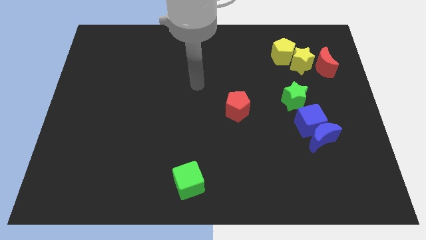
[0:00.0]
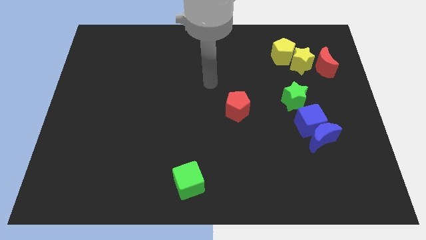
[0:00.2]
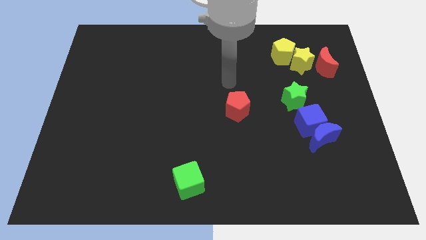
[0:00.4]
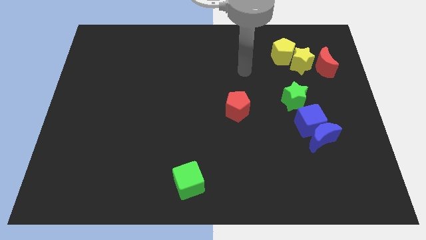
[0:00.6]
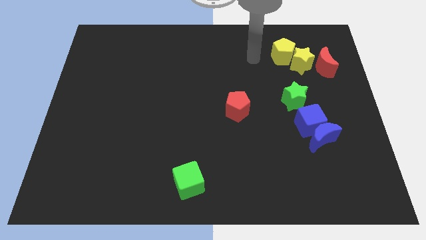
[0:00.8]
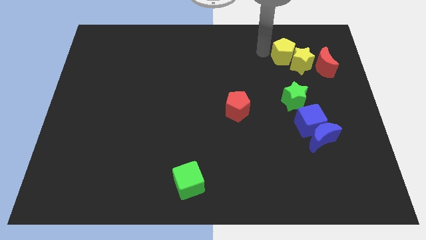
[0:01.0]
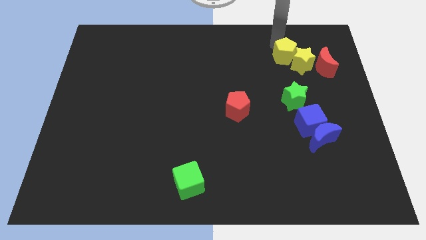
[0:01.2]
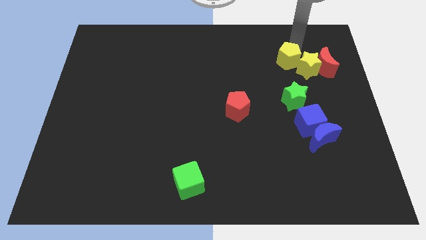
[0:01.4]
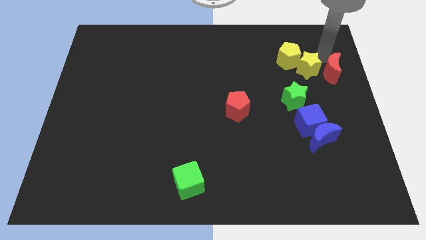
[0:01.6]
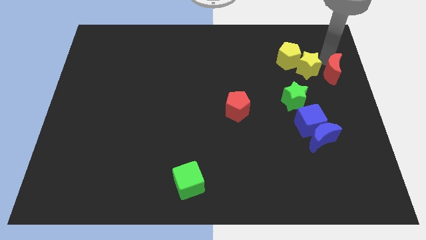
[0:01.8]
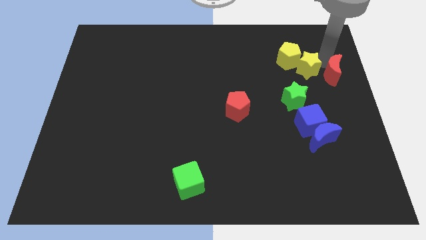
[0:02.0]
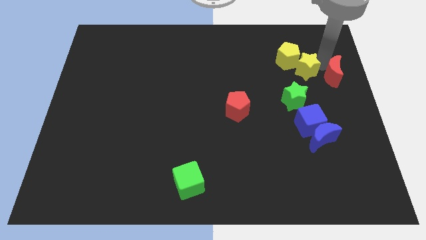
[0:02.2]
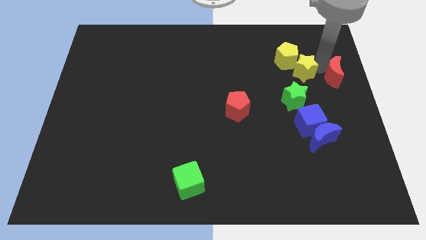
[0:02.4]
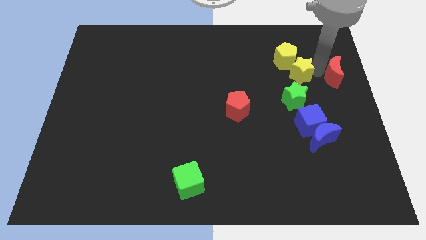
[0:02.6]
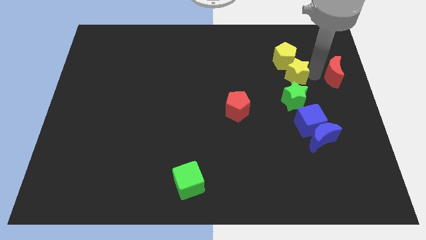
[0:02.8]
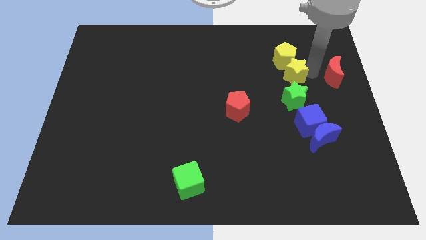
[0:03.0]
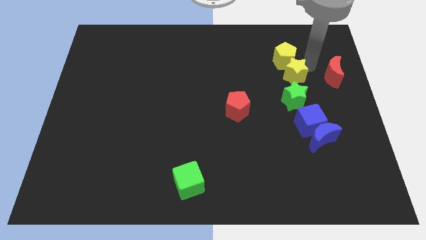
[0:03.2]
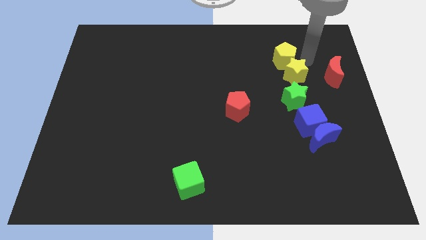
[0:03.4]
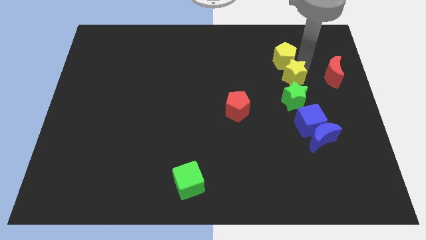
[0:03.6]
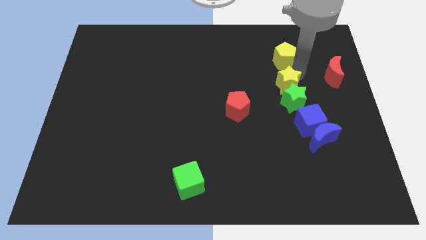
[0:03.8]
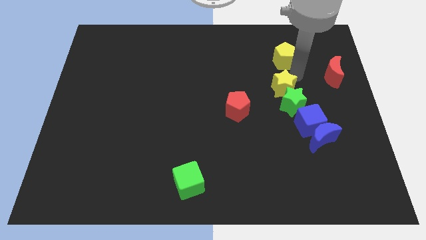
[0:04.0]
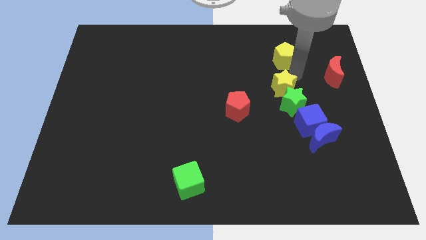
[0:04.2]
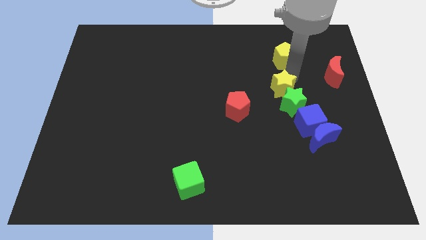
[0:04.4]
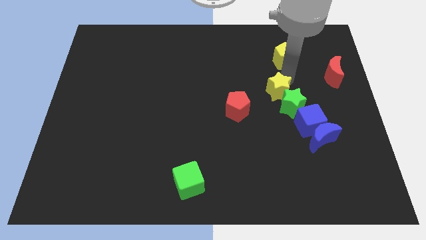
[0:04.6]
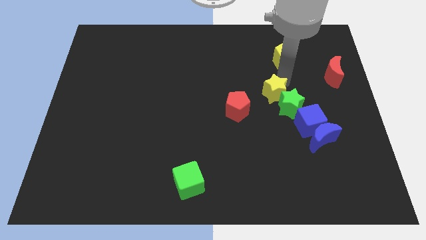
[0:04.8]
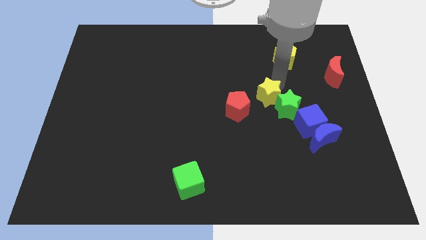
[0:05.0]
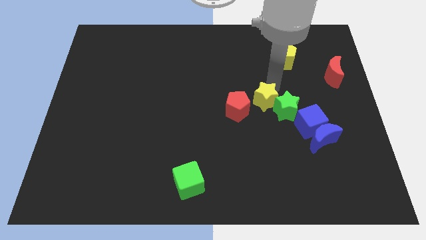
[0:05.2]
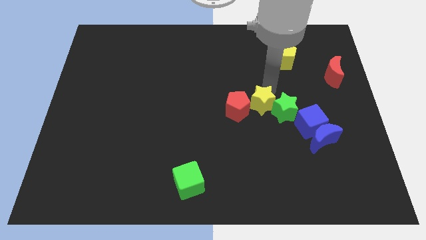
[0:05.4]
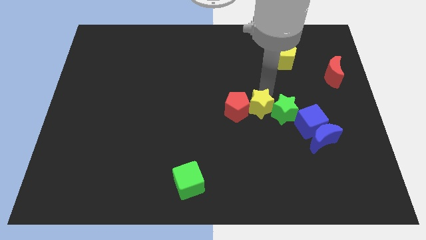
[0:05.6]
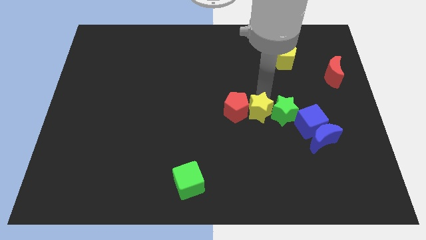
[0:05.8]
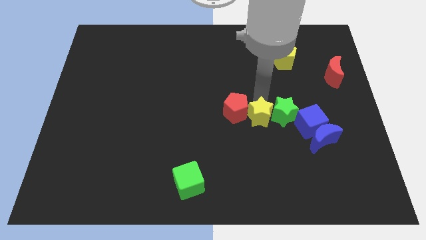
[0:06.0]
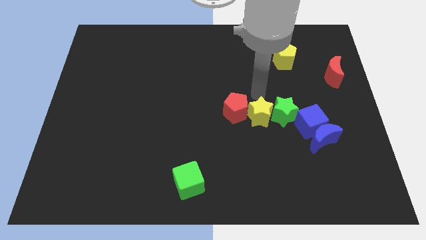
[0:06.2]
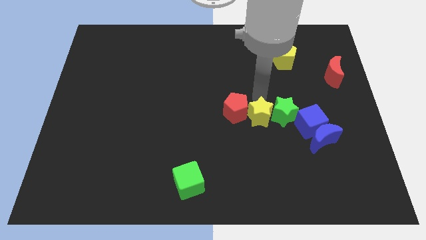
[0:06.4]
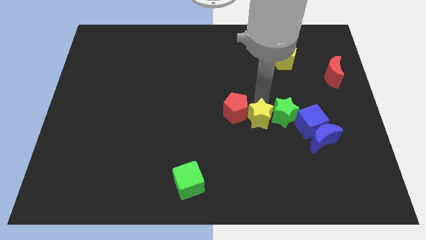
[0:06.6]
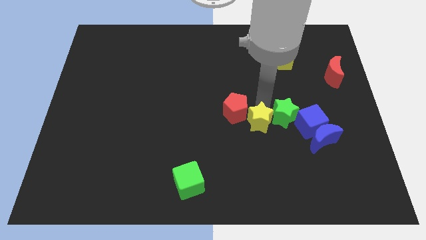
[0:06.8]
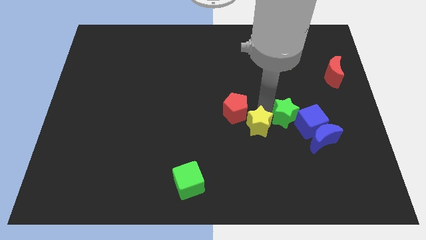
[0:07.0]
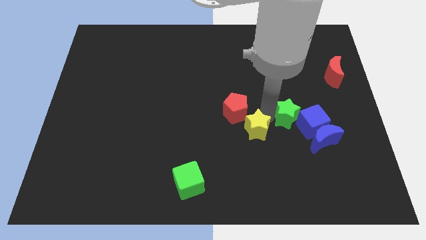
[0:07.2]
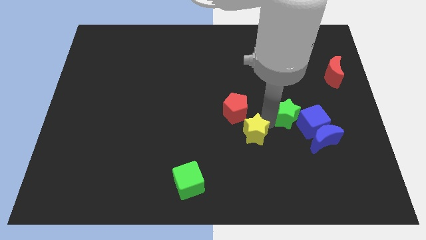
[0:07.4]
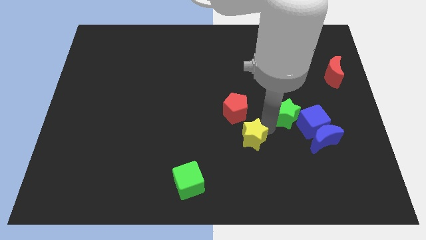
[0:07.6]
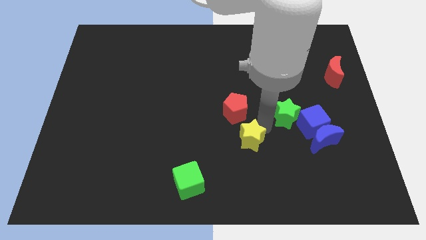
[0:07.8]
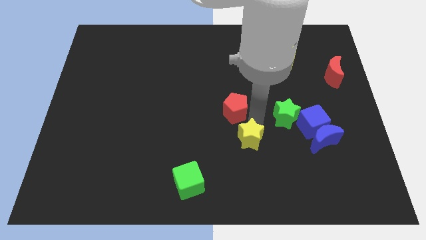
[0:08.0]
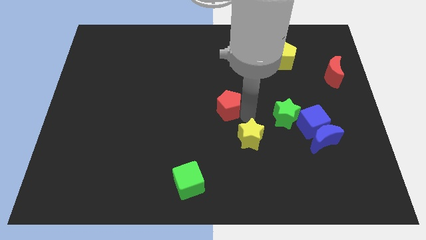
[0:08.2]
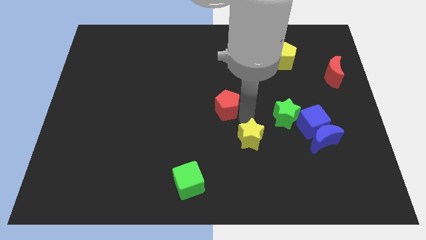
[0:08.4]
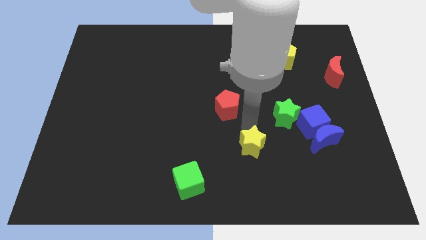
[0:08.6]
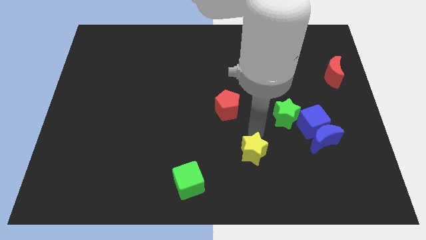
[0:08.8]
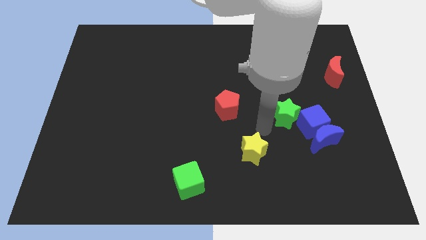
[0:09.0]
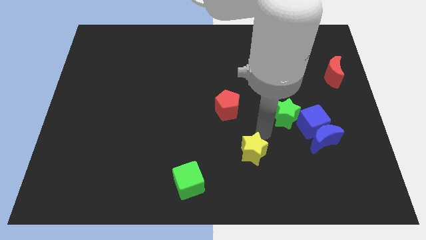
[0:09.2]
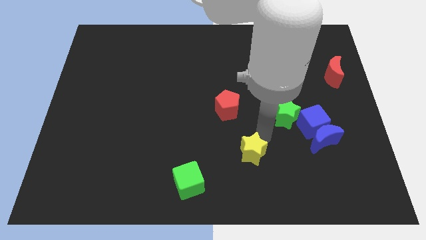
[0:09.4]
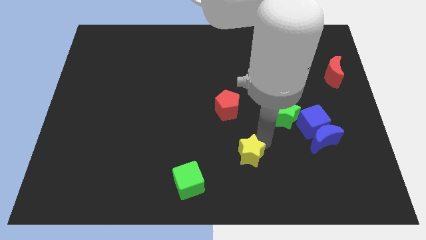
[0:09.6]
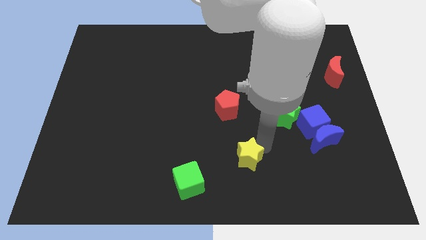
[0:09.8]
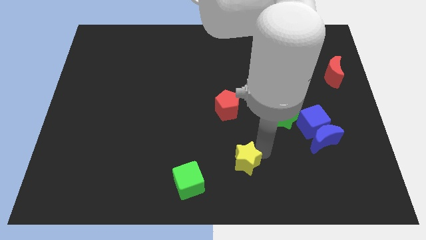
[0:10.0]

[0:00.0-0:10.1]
put the yellow star to the bottom side

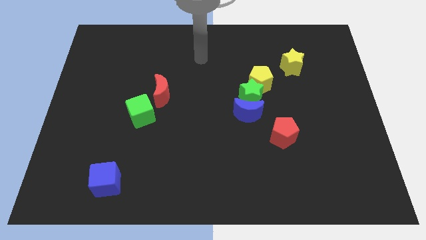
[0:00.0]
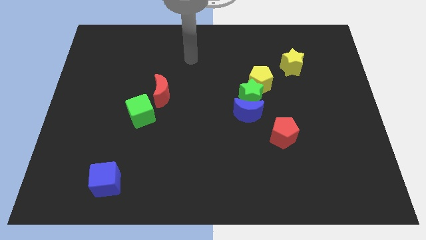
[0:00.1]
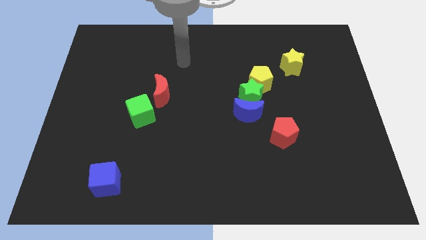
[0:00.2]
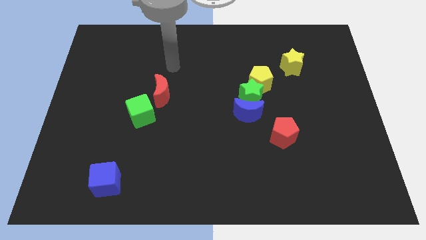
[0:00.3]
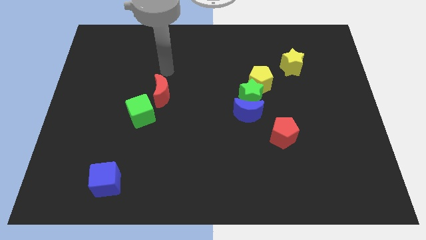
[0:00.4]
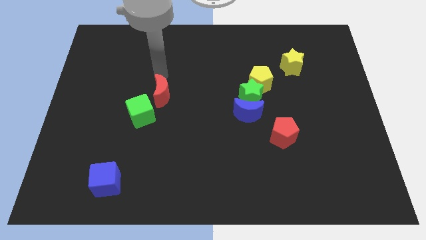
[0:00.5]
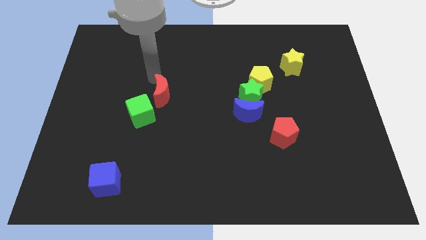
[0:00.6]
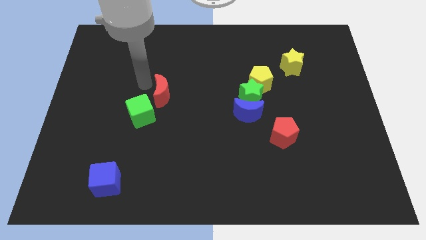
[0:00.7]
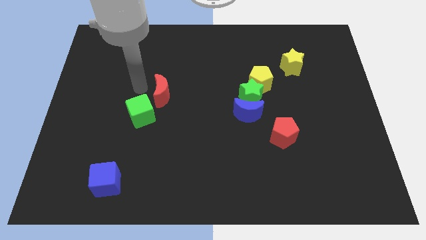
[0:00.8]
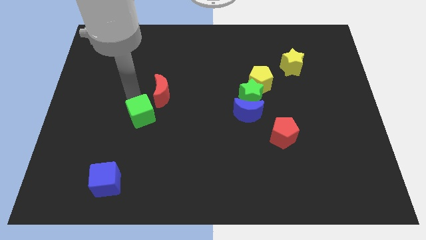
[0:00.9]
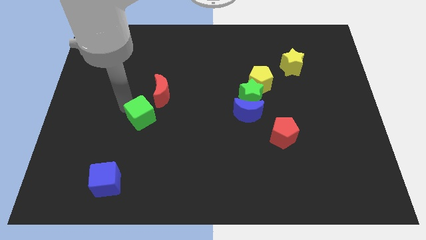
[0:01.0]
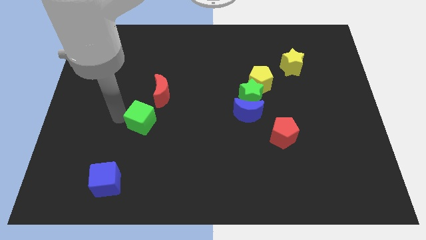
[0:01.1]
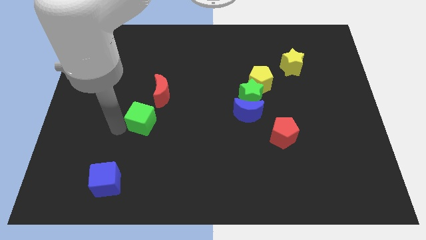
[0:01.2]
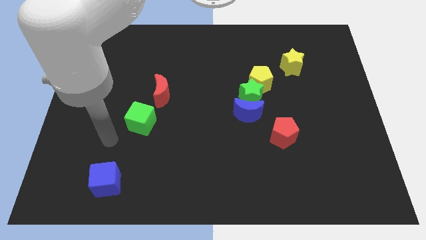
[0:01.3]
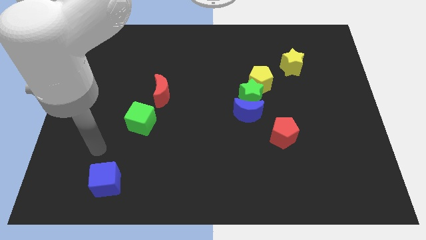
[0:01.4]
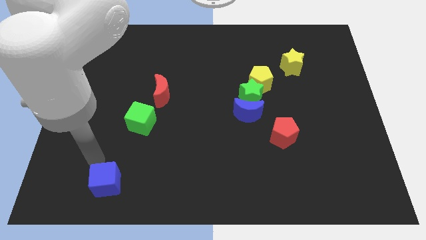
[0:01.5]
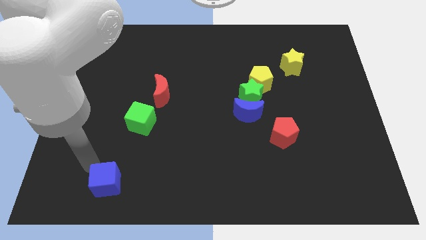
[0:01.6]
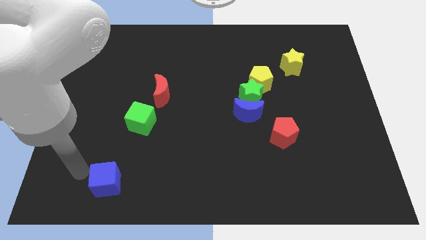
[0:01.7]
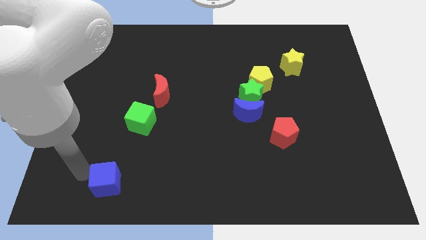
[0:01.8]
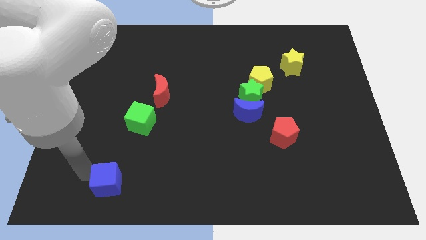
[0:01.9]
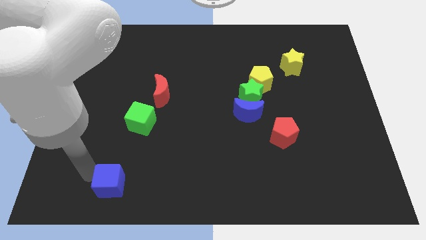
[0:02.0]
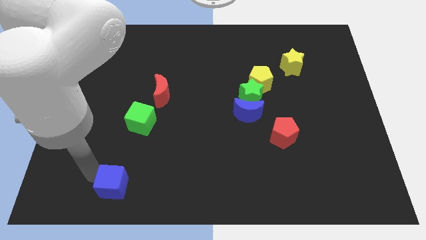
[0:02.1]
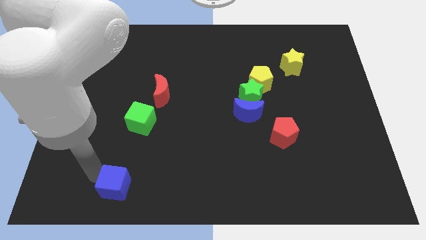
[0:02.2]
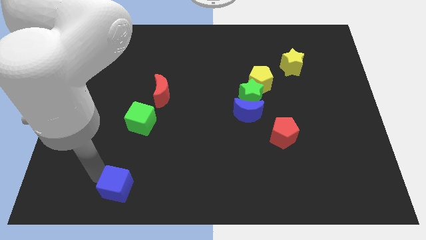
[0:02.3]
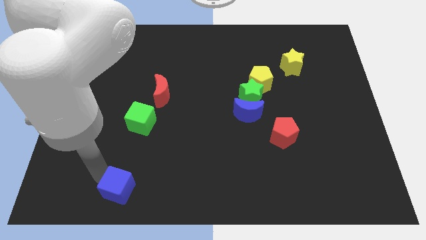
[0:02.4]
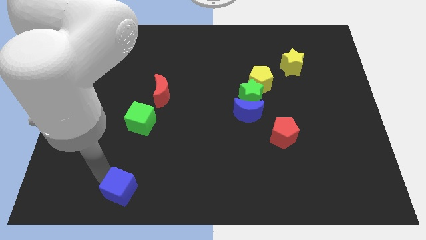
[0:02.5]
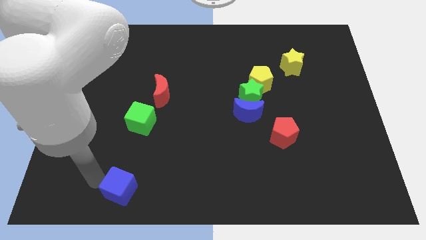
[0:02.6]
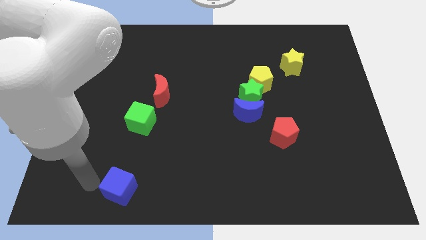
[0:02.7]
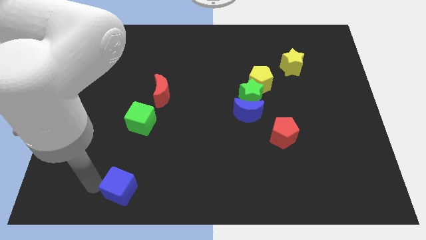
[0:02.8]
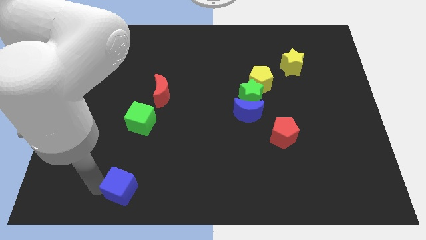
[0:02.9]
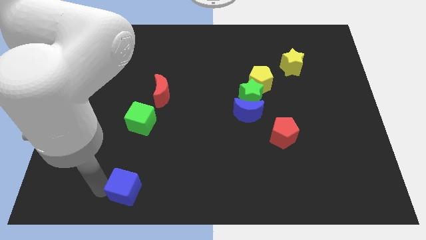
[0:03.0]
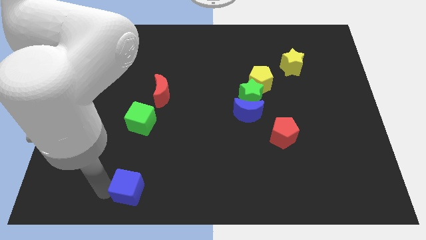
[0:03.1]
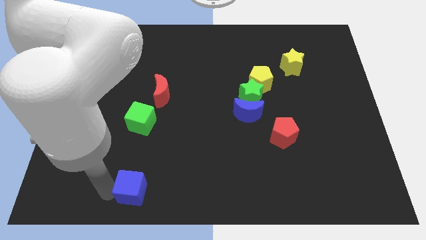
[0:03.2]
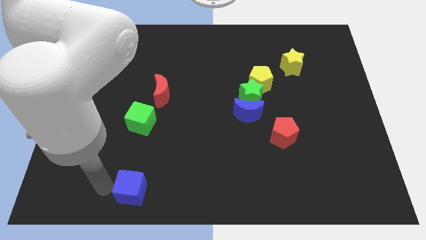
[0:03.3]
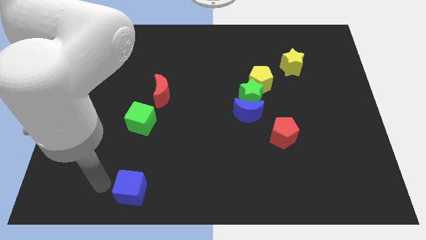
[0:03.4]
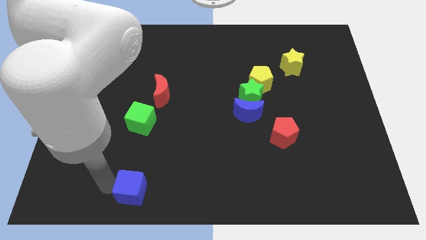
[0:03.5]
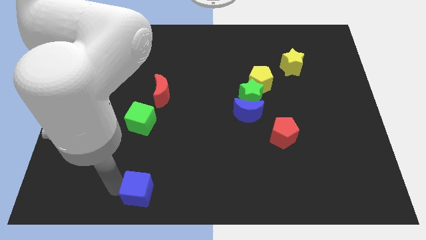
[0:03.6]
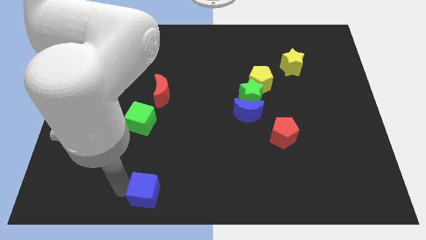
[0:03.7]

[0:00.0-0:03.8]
push the blue cube to the bottom
